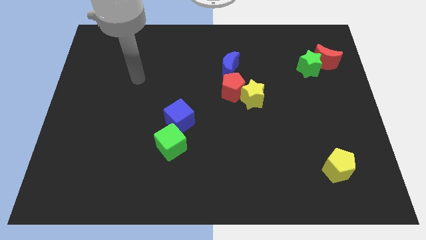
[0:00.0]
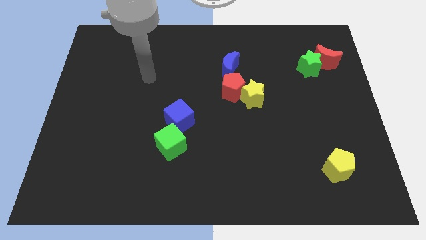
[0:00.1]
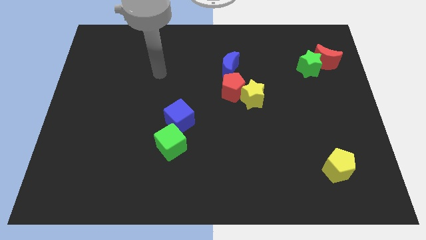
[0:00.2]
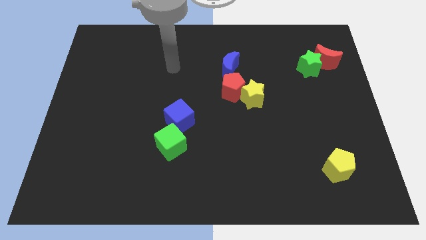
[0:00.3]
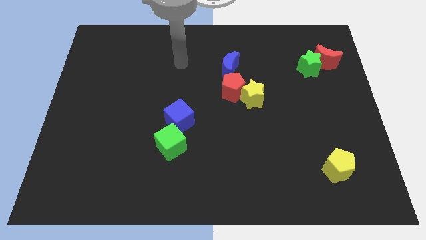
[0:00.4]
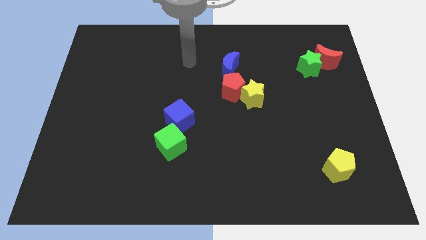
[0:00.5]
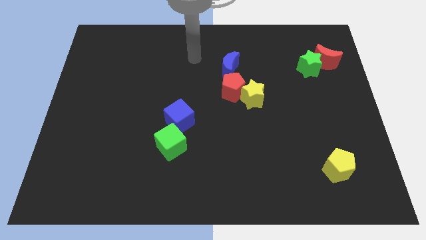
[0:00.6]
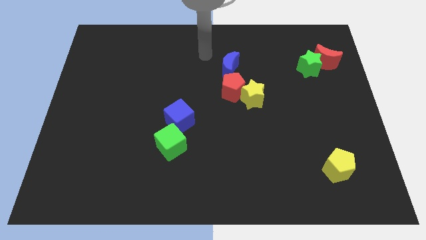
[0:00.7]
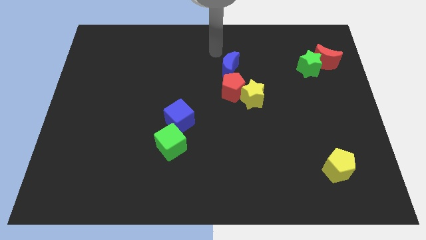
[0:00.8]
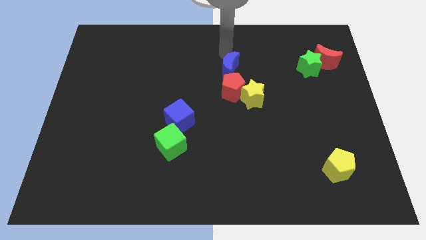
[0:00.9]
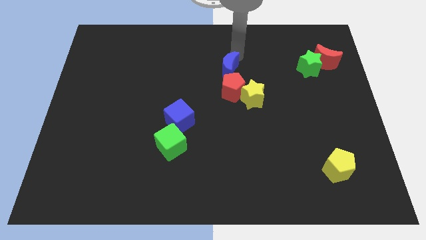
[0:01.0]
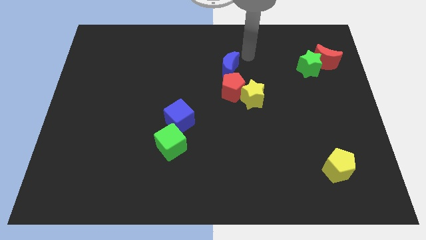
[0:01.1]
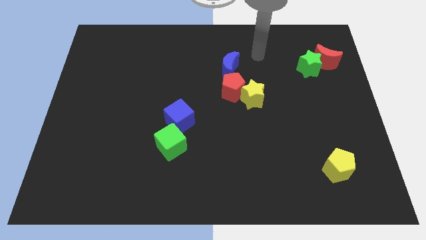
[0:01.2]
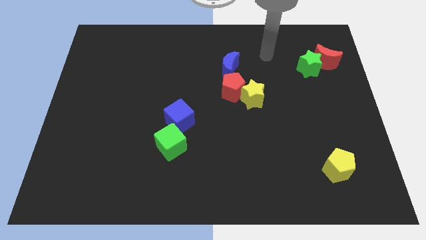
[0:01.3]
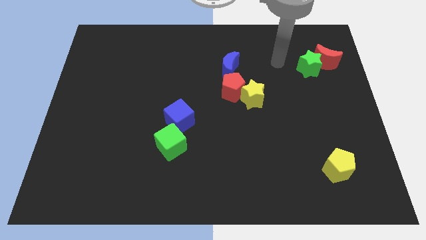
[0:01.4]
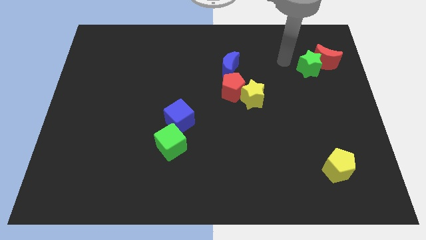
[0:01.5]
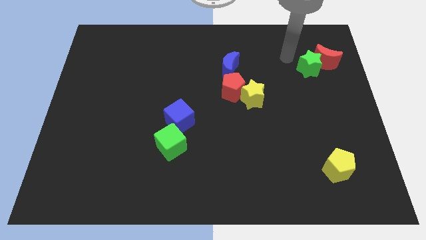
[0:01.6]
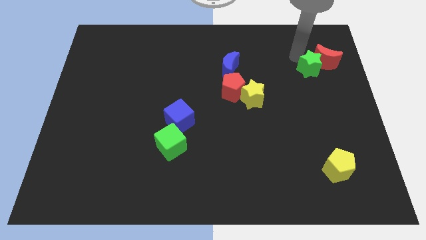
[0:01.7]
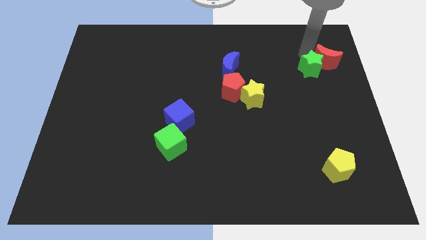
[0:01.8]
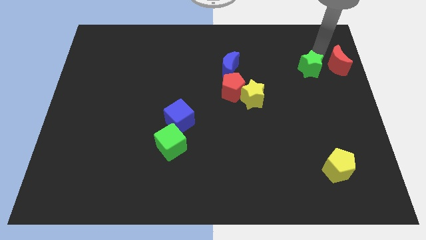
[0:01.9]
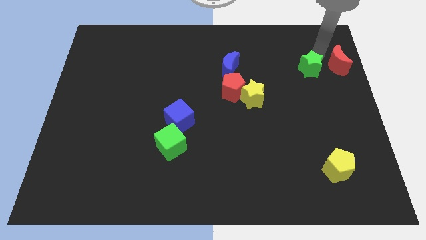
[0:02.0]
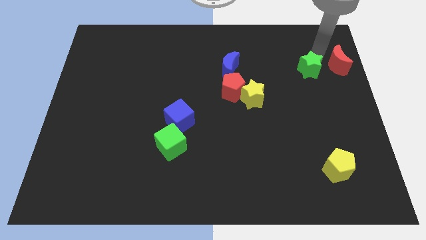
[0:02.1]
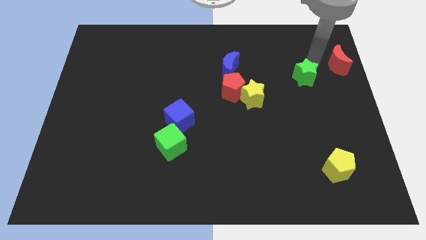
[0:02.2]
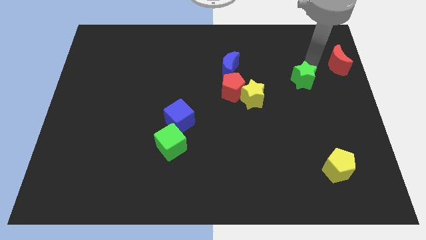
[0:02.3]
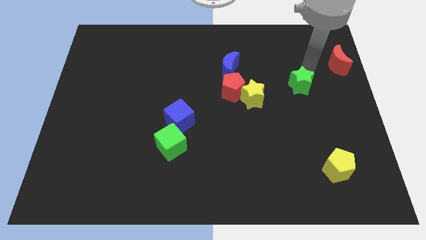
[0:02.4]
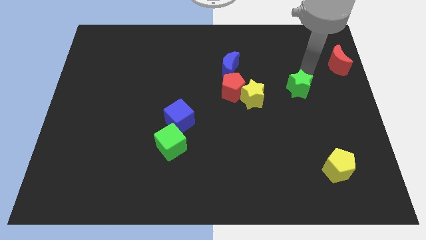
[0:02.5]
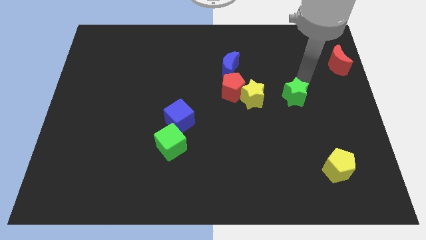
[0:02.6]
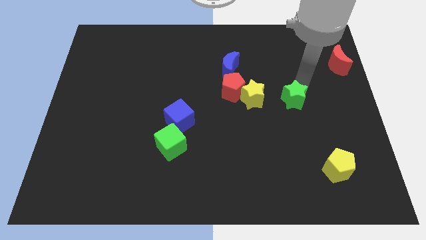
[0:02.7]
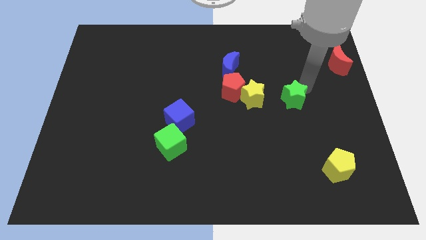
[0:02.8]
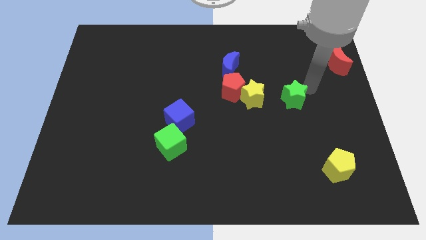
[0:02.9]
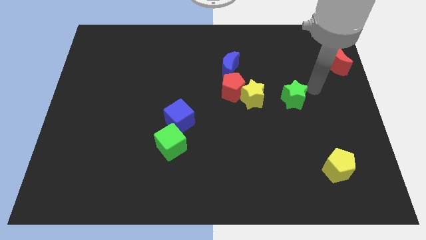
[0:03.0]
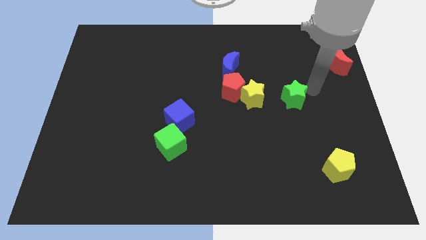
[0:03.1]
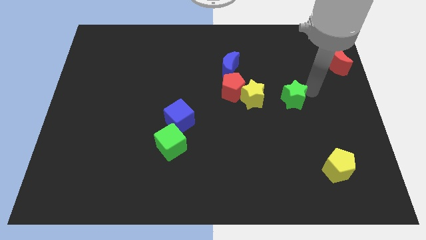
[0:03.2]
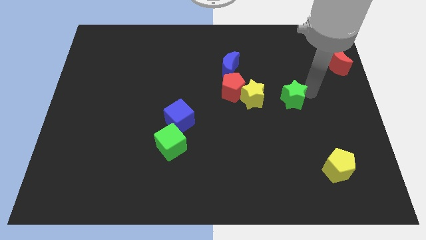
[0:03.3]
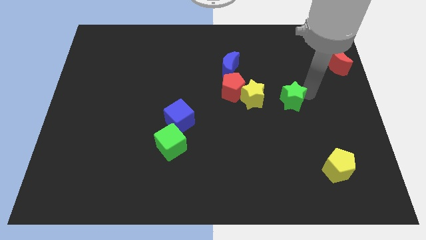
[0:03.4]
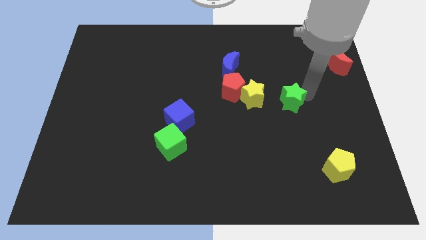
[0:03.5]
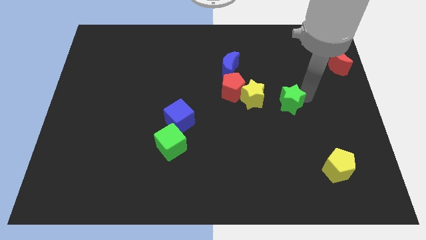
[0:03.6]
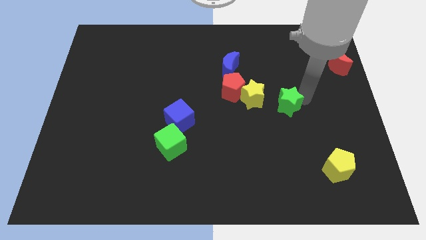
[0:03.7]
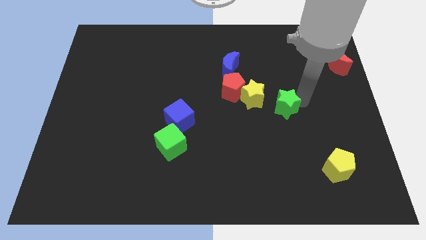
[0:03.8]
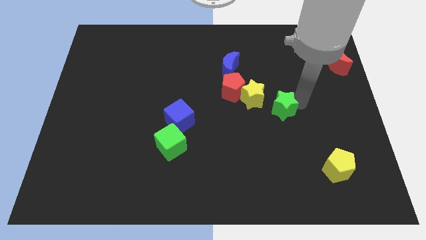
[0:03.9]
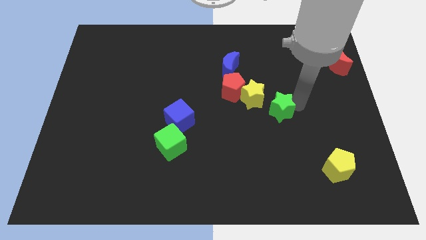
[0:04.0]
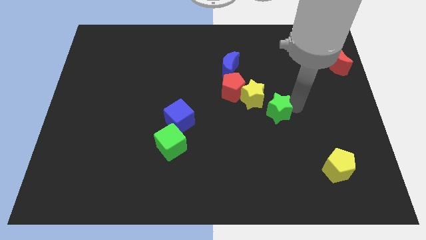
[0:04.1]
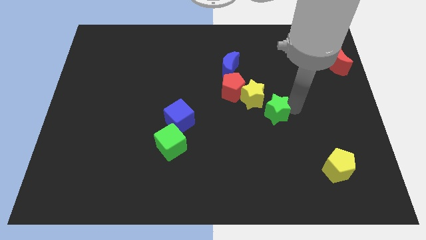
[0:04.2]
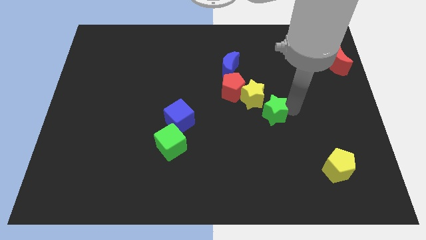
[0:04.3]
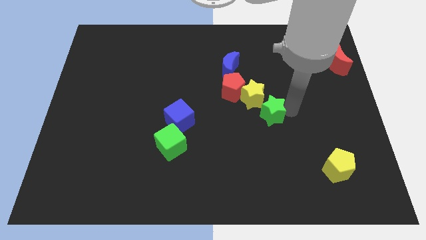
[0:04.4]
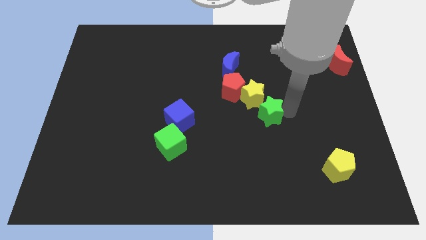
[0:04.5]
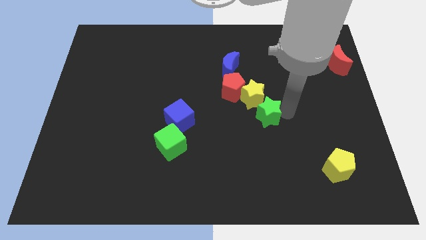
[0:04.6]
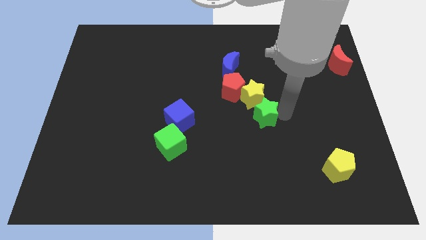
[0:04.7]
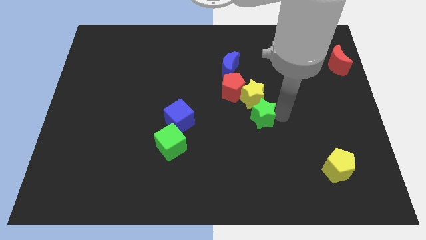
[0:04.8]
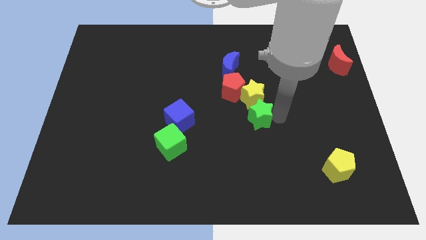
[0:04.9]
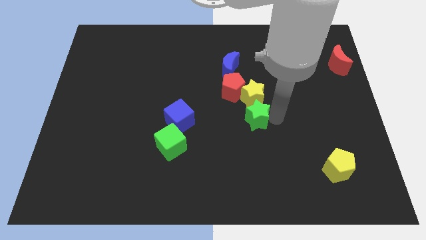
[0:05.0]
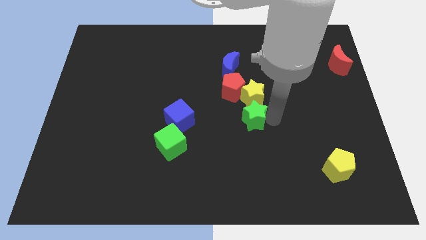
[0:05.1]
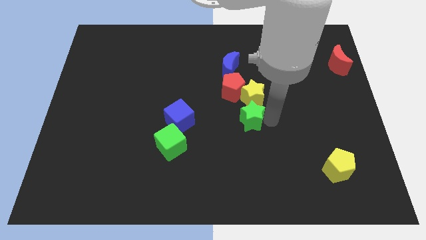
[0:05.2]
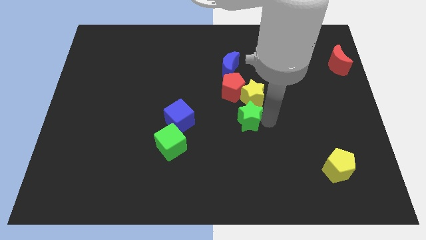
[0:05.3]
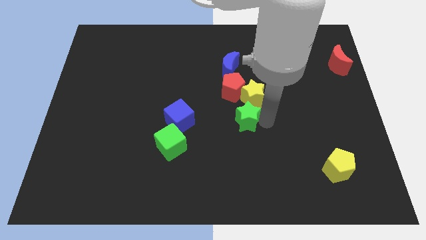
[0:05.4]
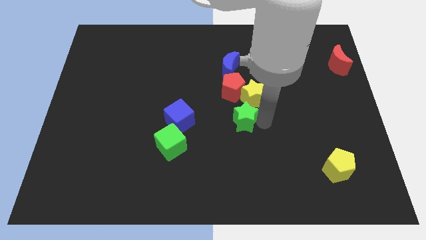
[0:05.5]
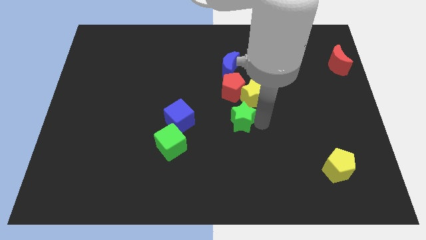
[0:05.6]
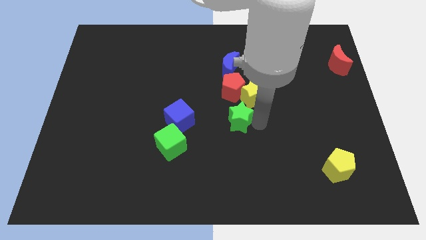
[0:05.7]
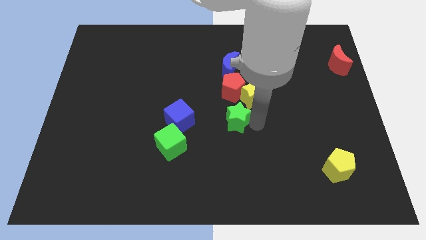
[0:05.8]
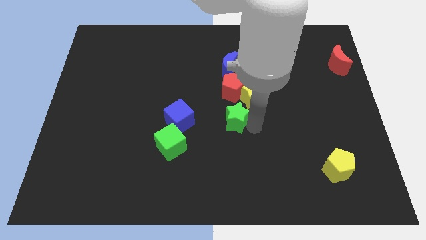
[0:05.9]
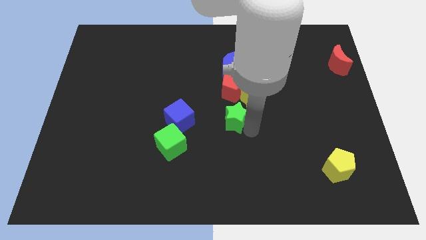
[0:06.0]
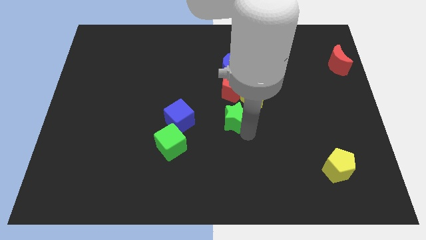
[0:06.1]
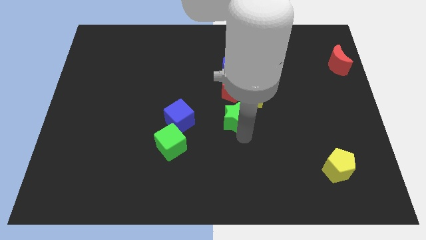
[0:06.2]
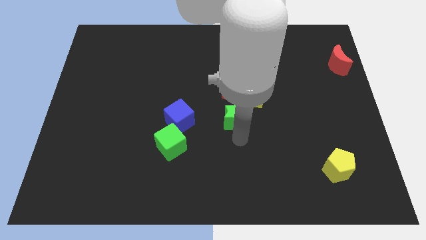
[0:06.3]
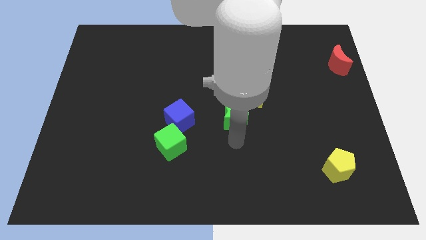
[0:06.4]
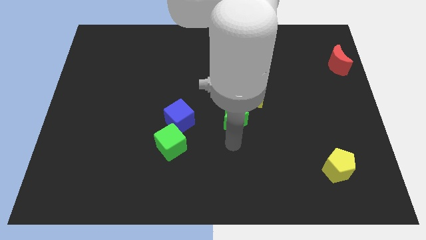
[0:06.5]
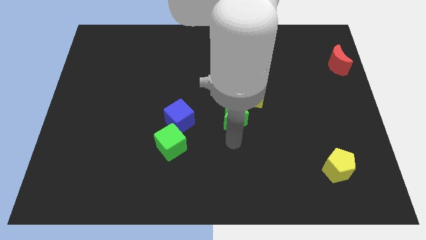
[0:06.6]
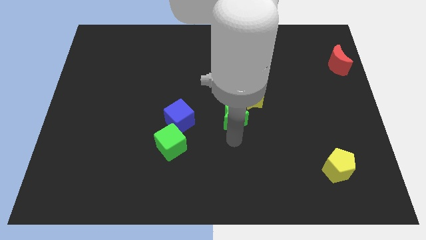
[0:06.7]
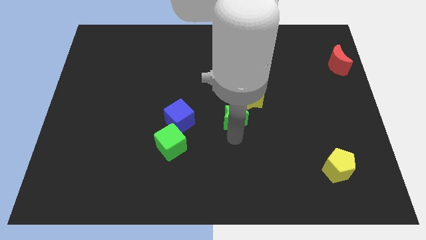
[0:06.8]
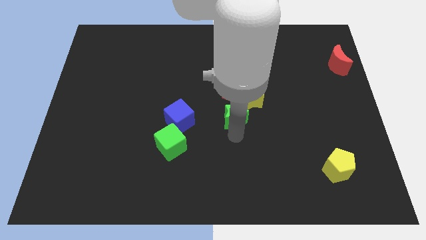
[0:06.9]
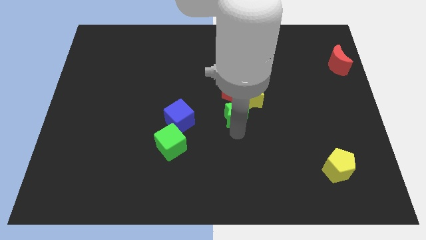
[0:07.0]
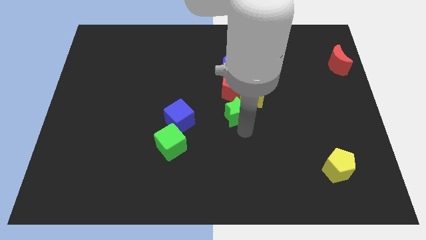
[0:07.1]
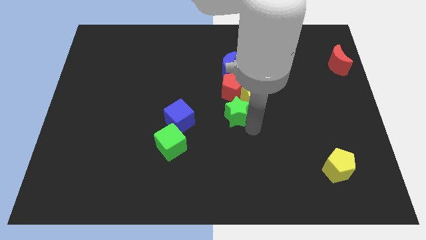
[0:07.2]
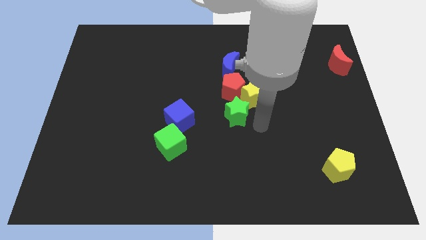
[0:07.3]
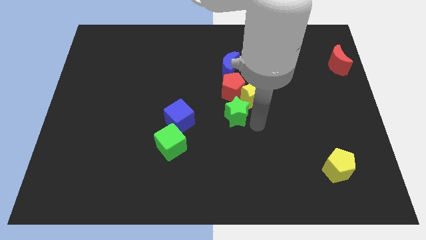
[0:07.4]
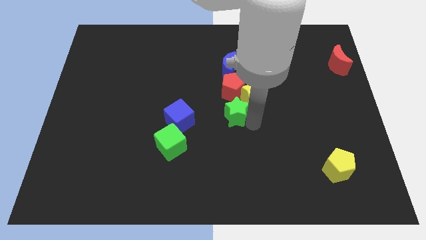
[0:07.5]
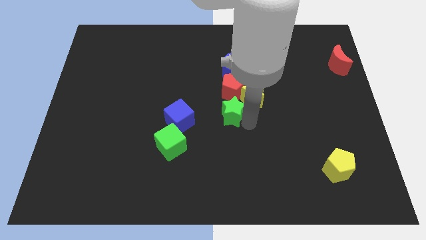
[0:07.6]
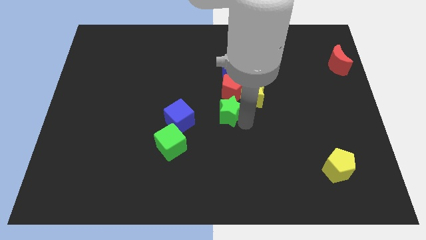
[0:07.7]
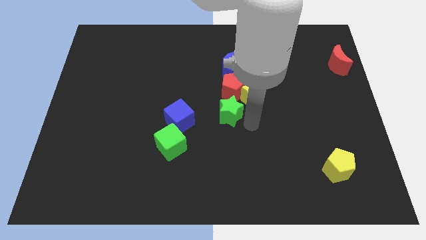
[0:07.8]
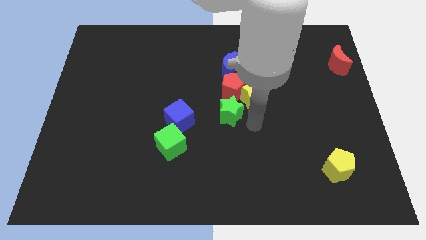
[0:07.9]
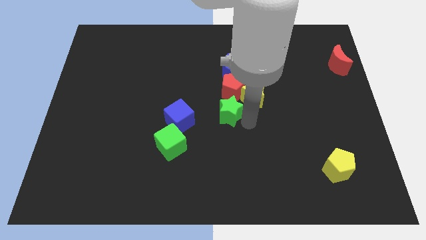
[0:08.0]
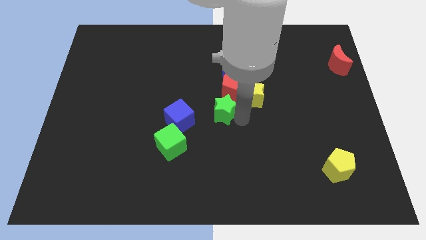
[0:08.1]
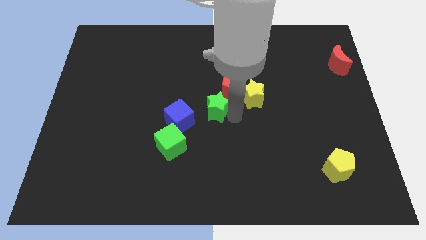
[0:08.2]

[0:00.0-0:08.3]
push the green star to the top right of the blue cube
